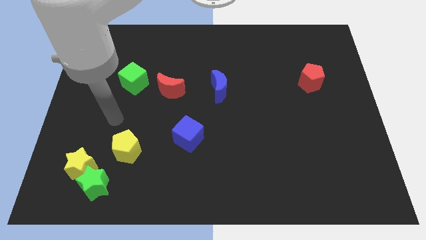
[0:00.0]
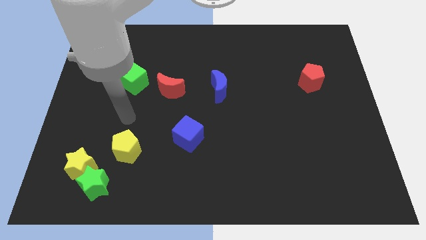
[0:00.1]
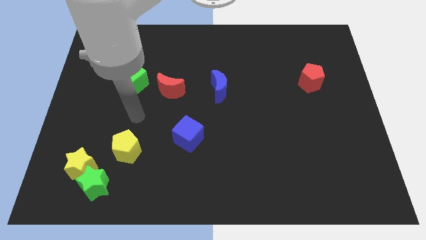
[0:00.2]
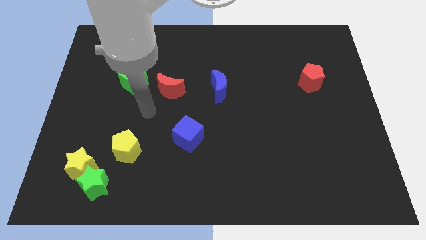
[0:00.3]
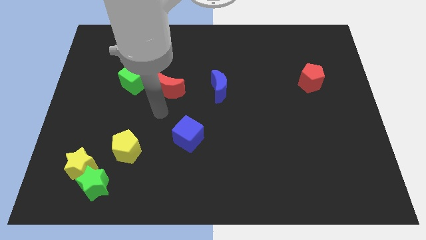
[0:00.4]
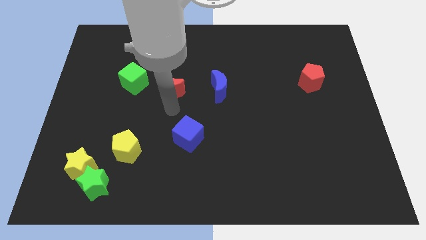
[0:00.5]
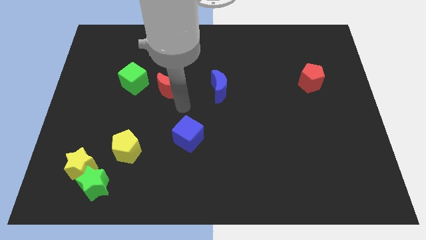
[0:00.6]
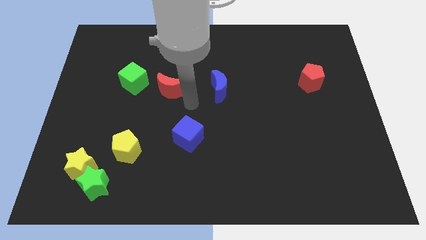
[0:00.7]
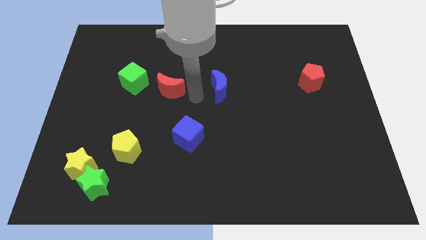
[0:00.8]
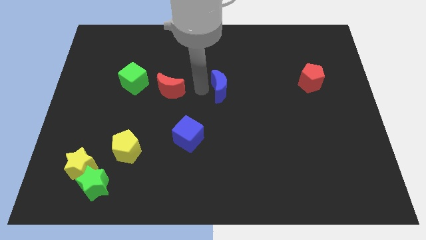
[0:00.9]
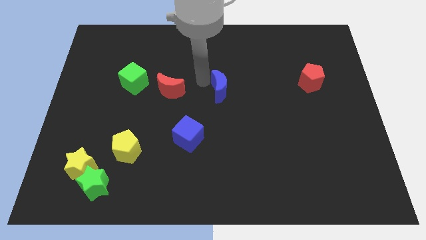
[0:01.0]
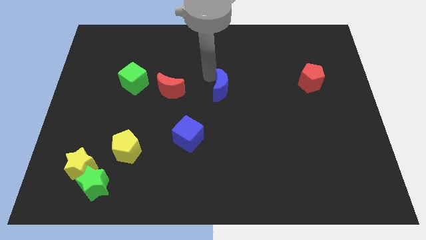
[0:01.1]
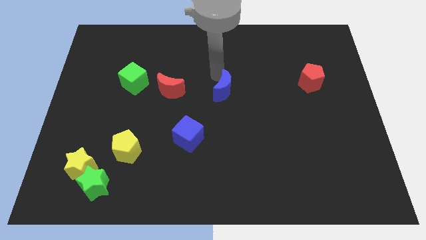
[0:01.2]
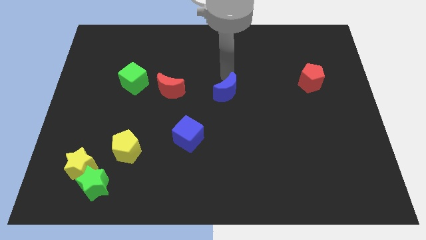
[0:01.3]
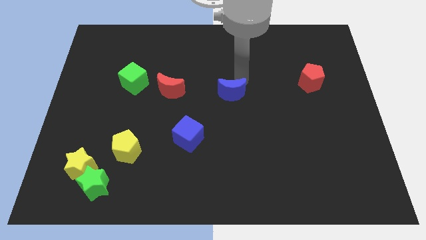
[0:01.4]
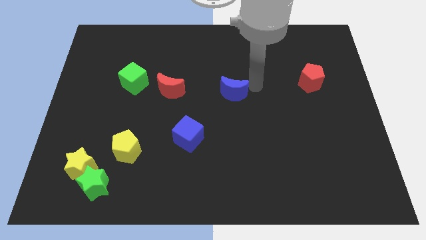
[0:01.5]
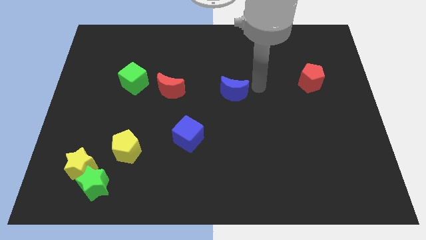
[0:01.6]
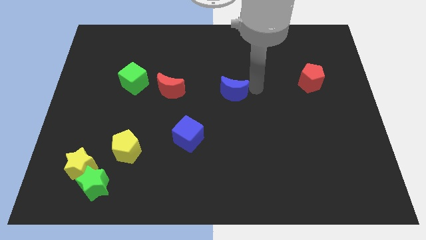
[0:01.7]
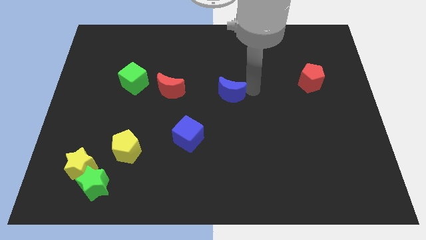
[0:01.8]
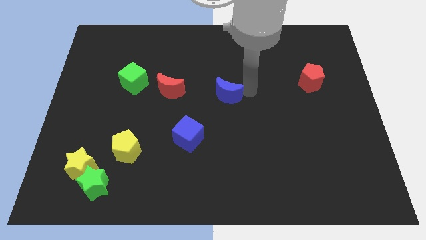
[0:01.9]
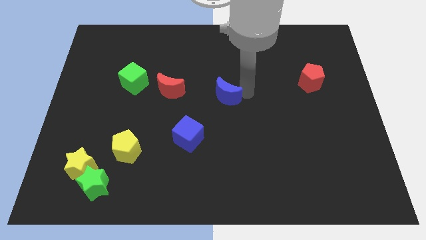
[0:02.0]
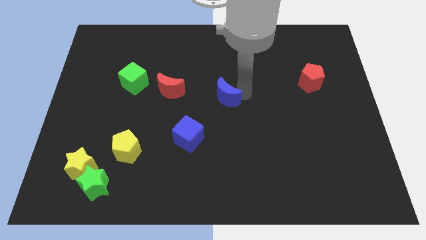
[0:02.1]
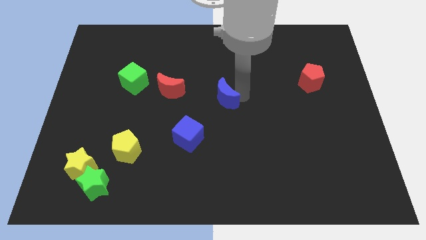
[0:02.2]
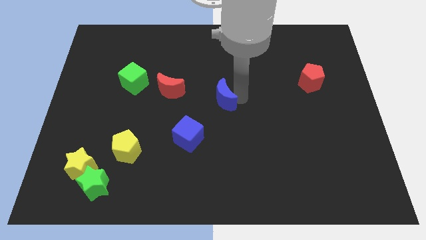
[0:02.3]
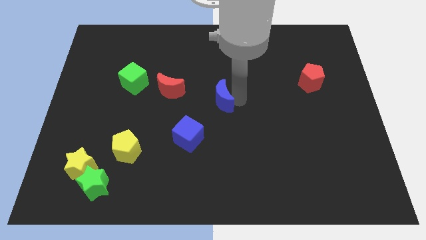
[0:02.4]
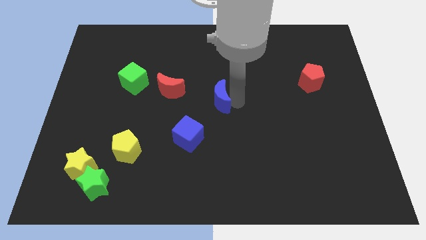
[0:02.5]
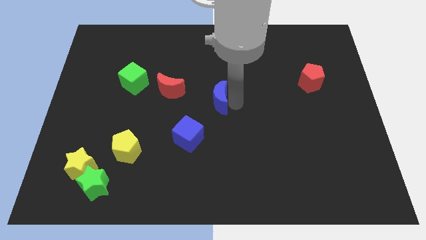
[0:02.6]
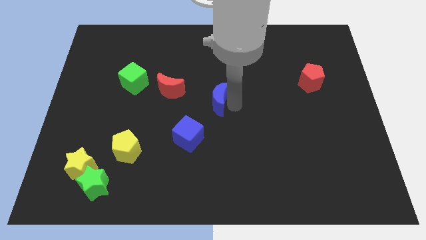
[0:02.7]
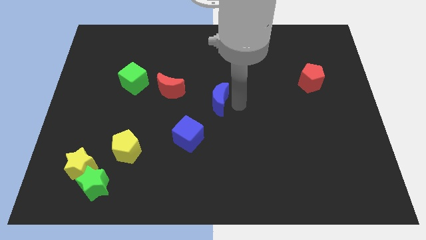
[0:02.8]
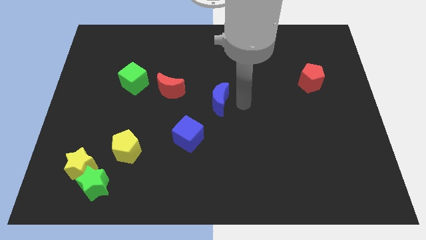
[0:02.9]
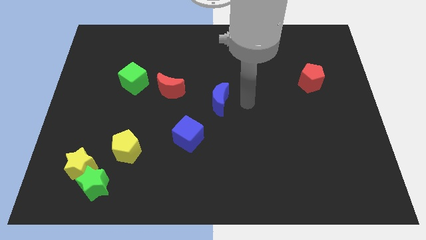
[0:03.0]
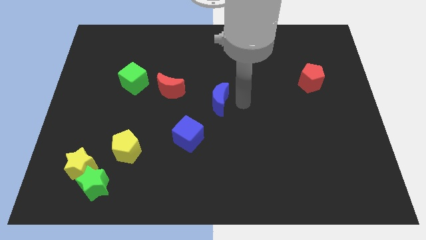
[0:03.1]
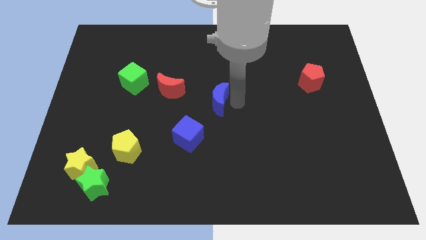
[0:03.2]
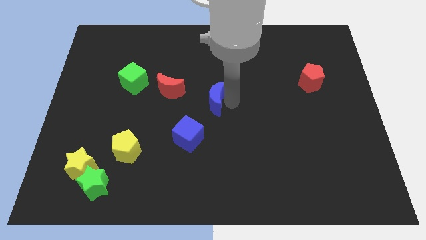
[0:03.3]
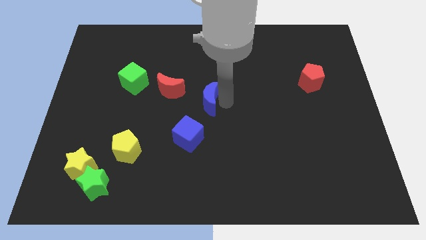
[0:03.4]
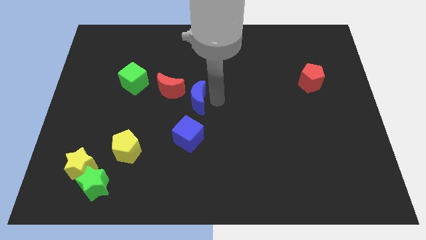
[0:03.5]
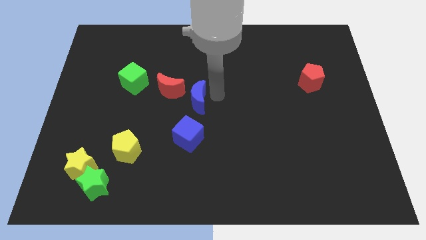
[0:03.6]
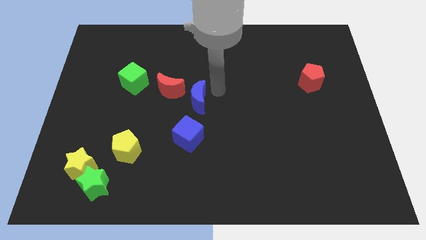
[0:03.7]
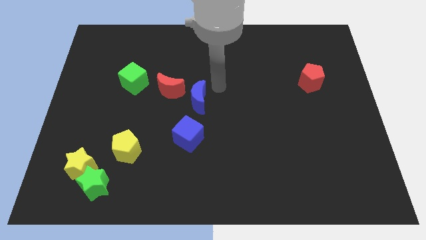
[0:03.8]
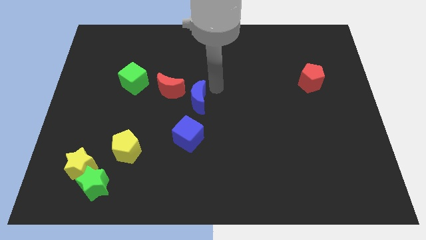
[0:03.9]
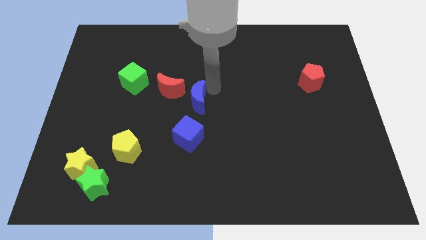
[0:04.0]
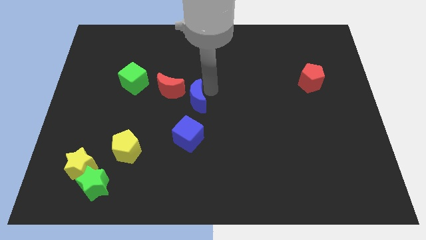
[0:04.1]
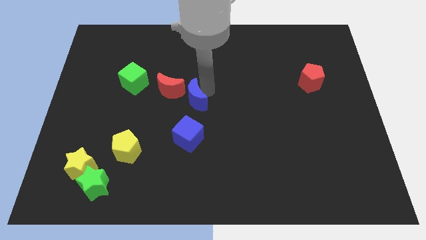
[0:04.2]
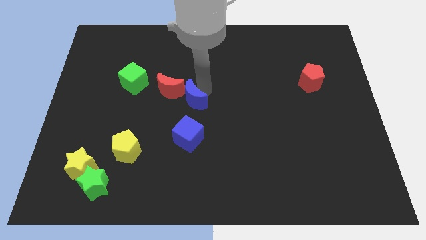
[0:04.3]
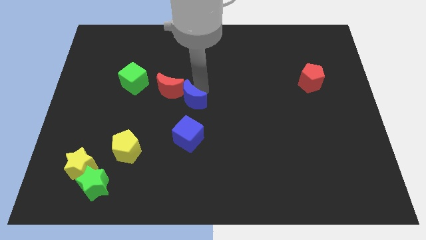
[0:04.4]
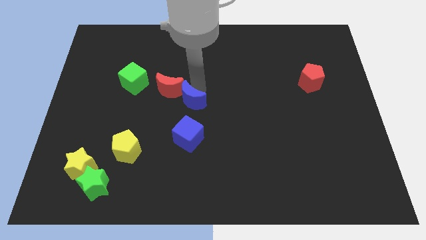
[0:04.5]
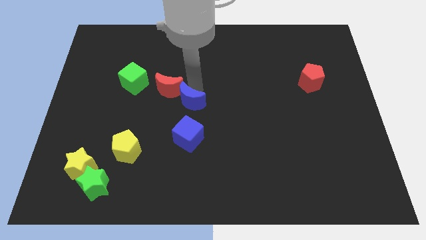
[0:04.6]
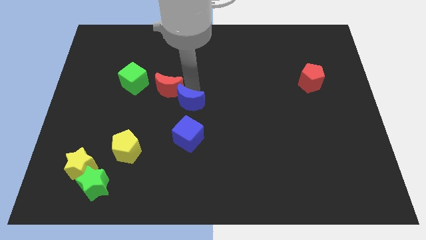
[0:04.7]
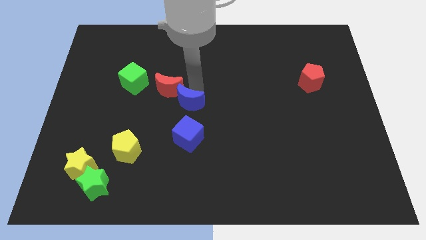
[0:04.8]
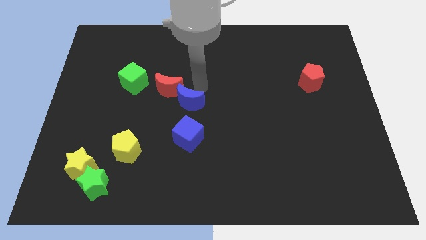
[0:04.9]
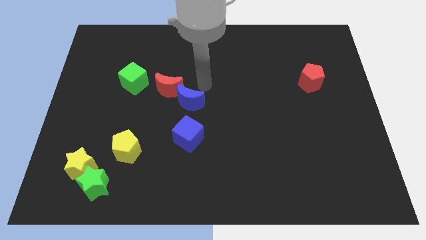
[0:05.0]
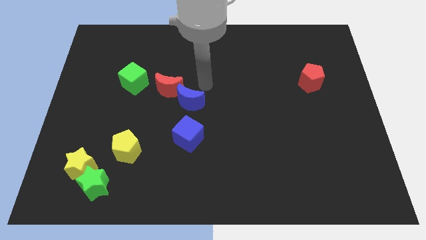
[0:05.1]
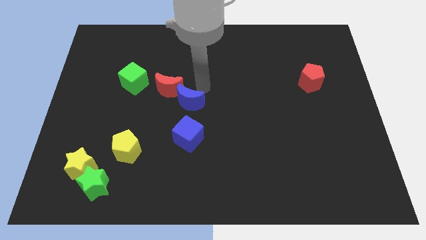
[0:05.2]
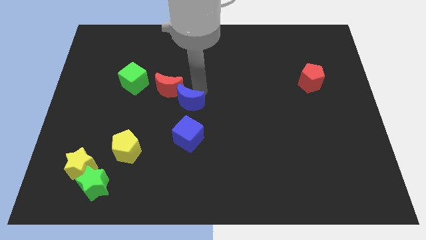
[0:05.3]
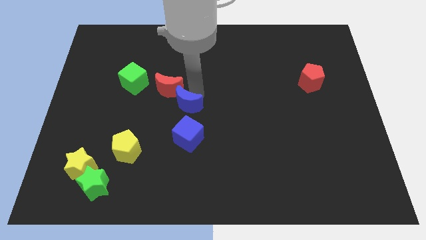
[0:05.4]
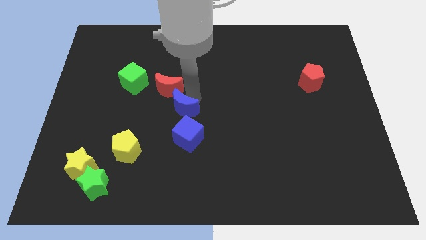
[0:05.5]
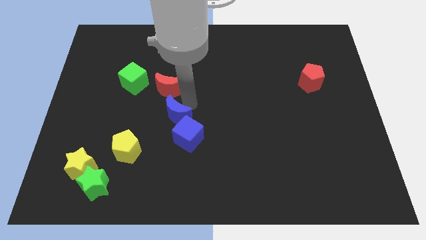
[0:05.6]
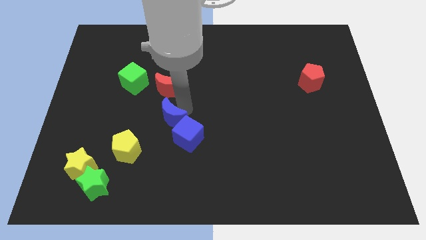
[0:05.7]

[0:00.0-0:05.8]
slide the blue moon to the top right side of the yellow pentagon

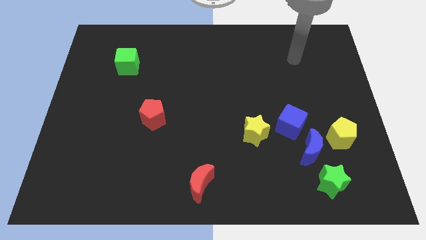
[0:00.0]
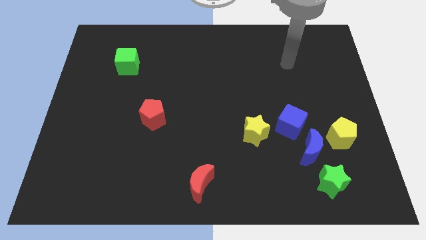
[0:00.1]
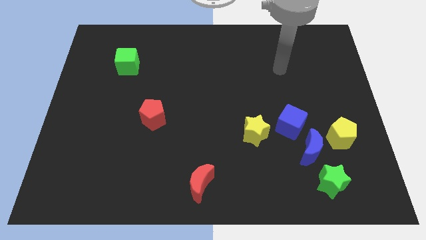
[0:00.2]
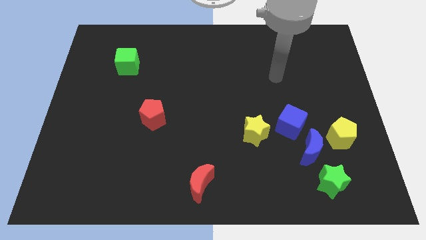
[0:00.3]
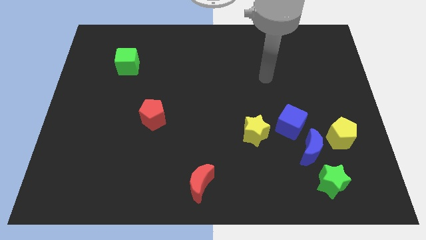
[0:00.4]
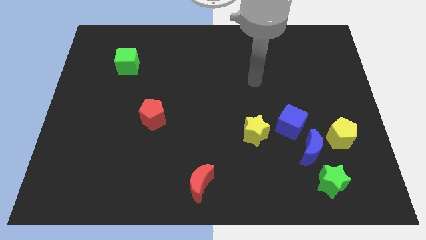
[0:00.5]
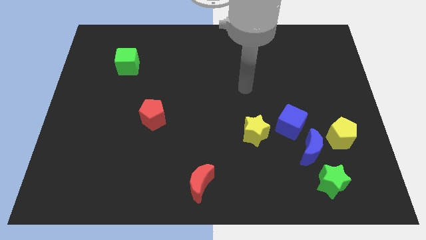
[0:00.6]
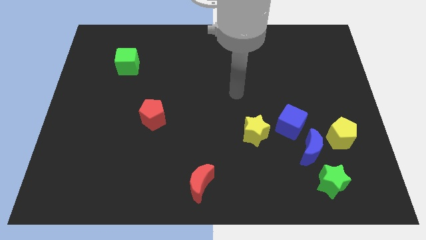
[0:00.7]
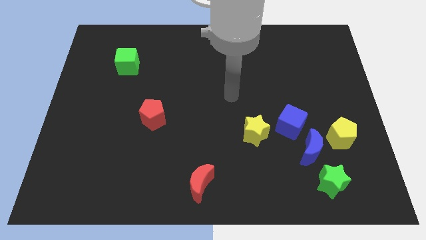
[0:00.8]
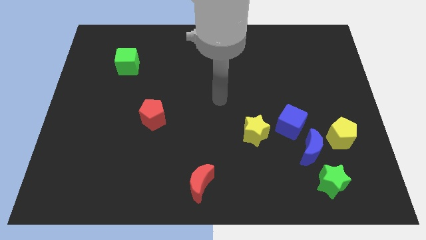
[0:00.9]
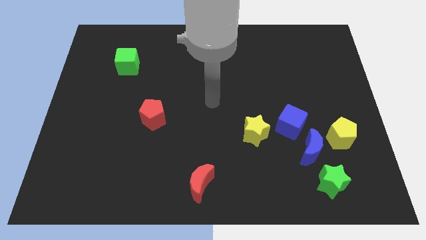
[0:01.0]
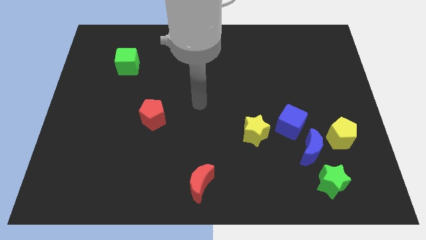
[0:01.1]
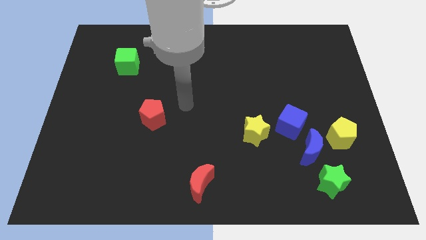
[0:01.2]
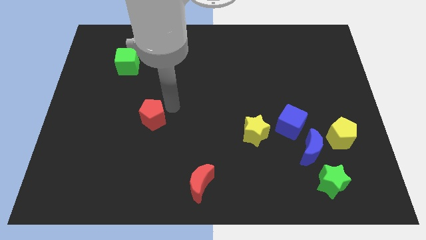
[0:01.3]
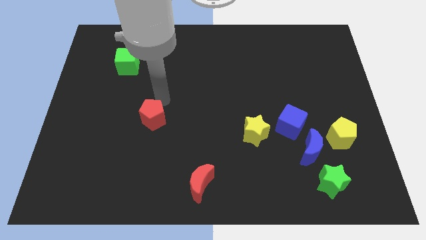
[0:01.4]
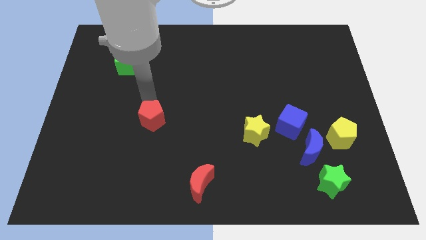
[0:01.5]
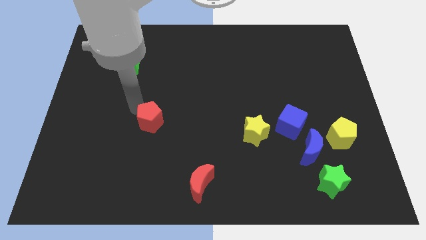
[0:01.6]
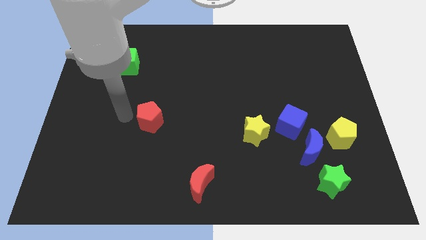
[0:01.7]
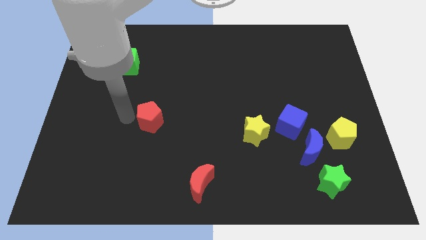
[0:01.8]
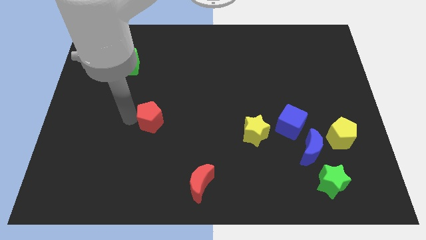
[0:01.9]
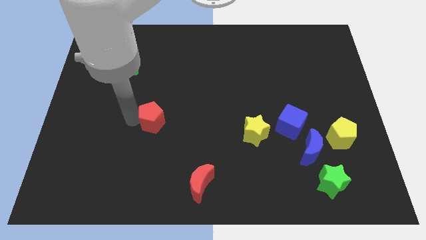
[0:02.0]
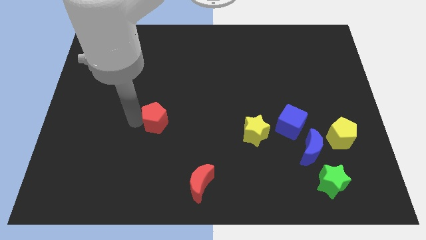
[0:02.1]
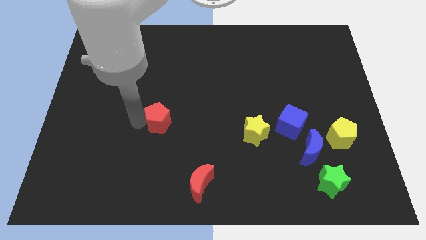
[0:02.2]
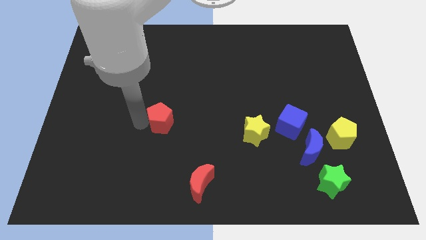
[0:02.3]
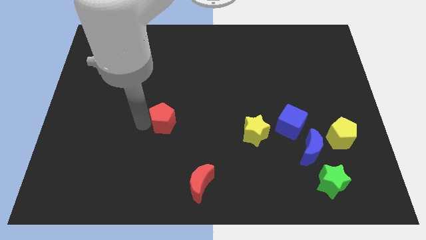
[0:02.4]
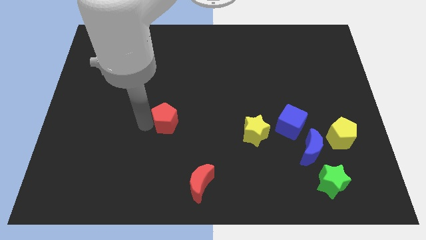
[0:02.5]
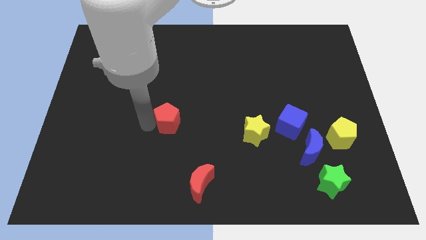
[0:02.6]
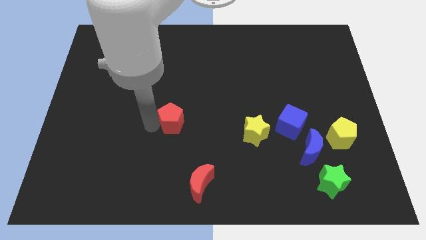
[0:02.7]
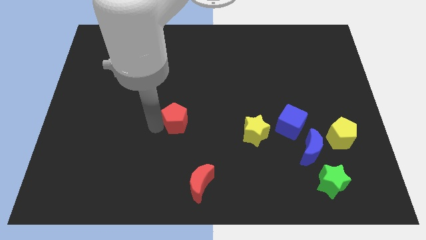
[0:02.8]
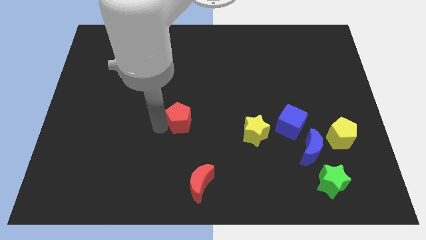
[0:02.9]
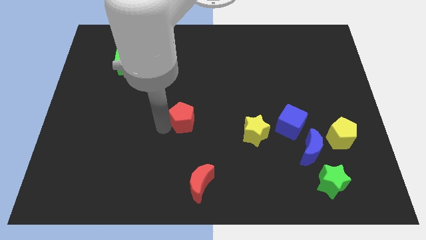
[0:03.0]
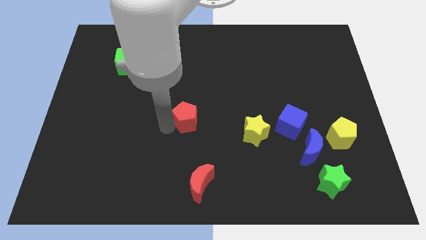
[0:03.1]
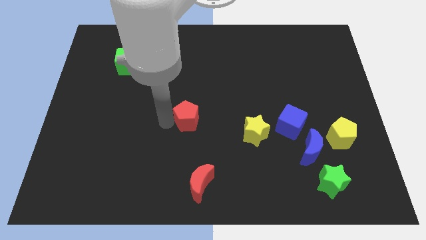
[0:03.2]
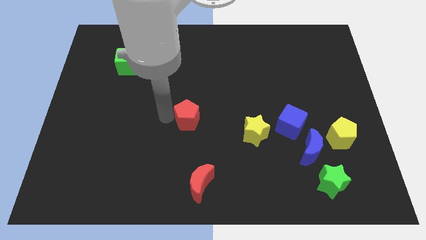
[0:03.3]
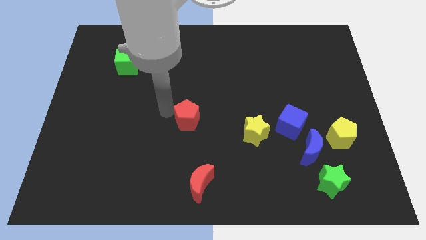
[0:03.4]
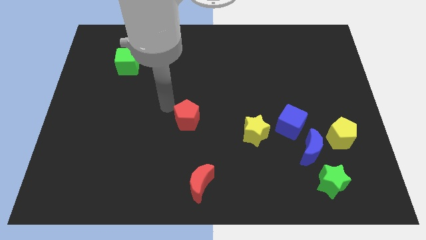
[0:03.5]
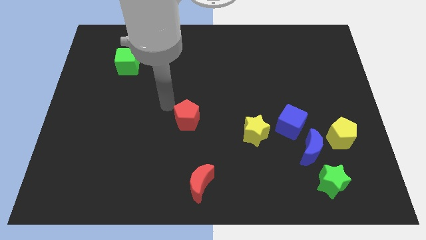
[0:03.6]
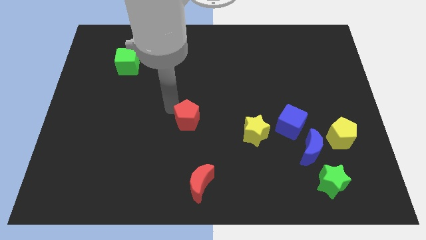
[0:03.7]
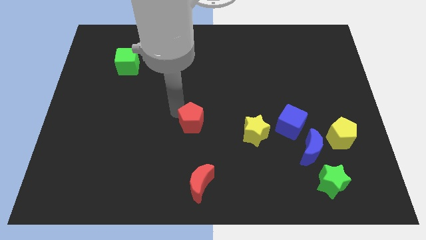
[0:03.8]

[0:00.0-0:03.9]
move the red pentagon just left of the yellow star
